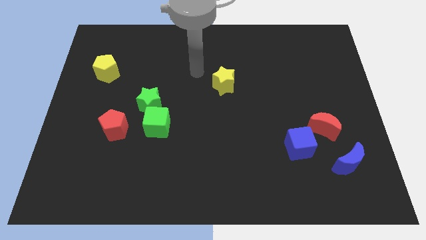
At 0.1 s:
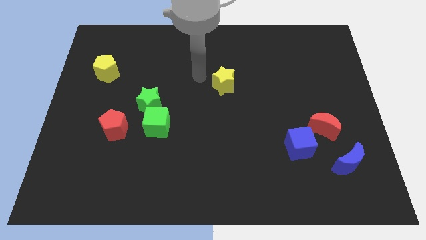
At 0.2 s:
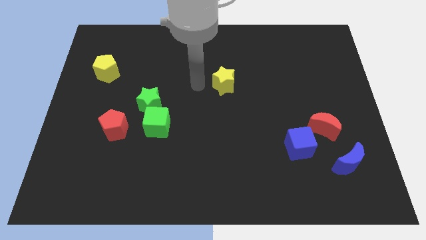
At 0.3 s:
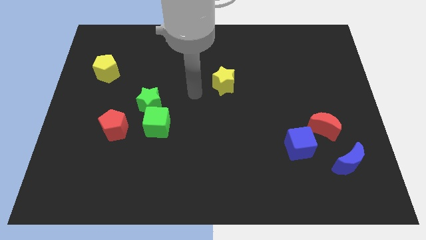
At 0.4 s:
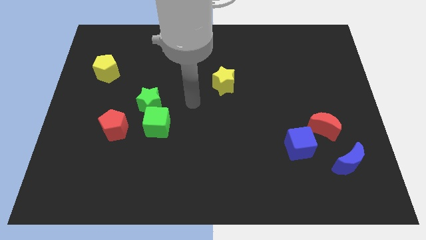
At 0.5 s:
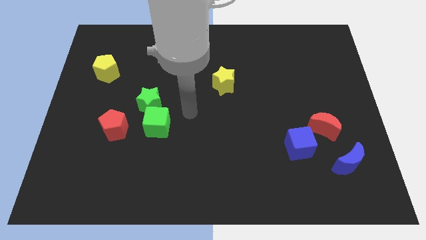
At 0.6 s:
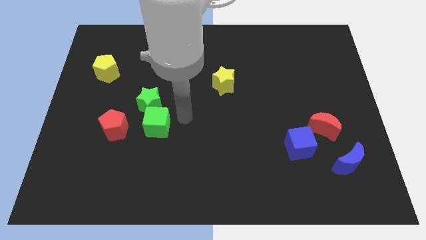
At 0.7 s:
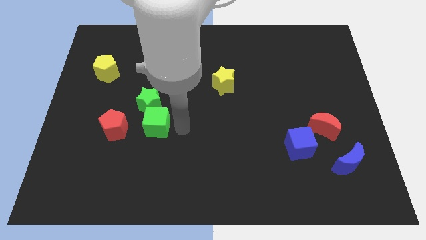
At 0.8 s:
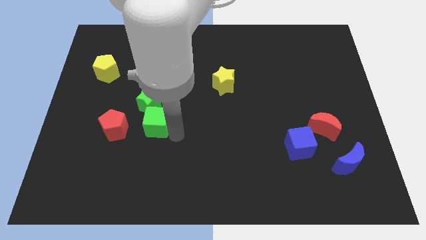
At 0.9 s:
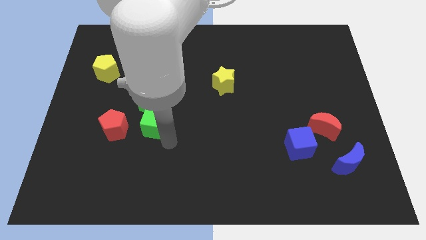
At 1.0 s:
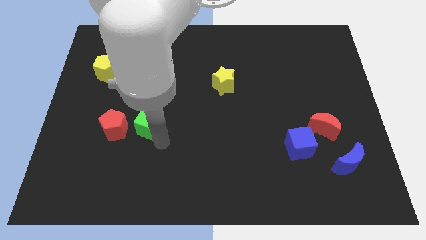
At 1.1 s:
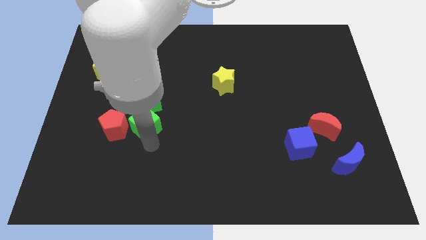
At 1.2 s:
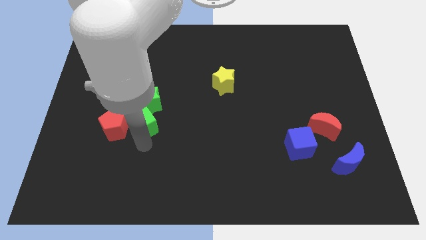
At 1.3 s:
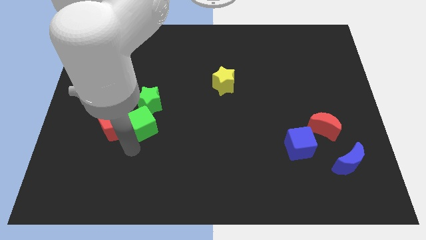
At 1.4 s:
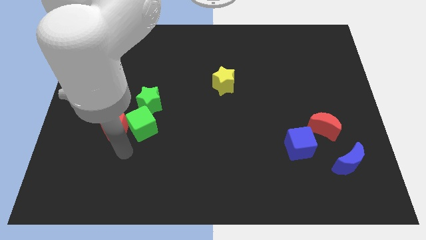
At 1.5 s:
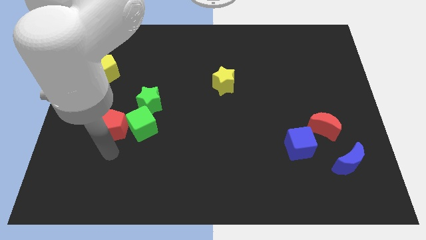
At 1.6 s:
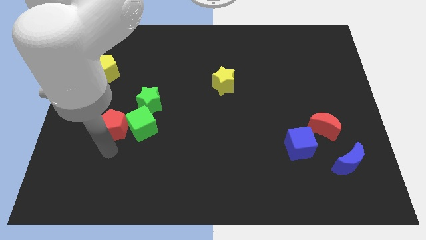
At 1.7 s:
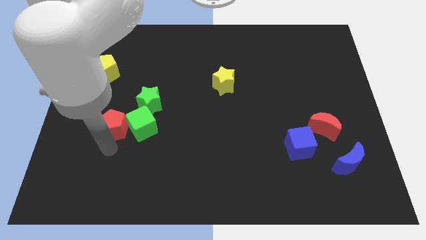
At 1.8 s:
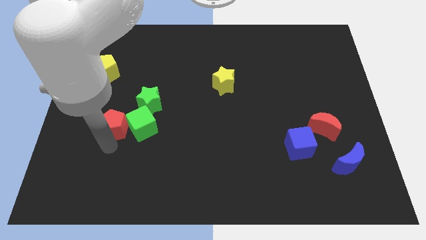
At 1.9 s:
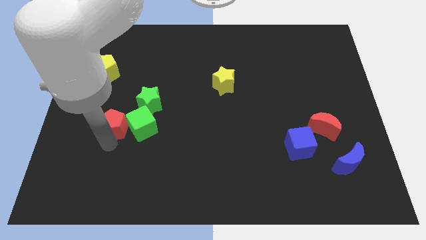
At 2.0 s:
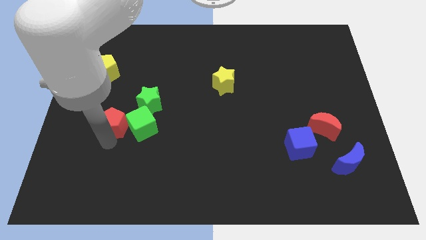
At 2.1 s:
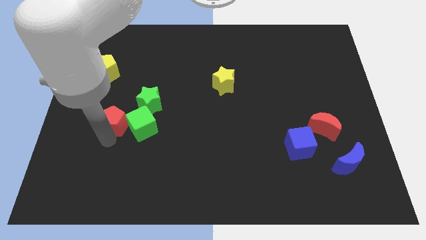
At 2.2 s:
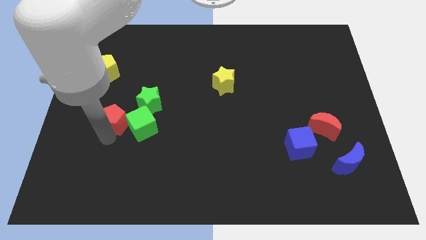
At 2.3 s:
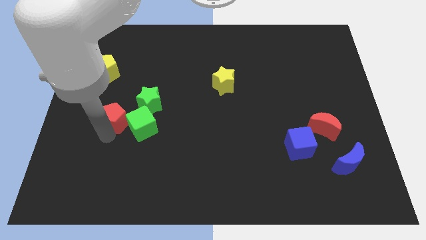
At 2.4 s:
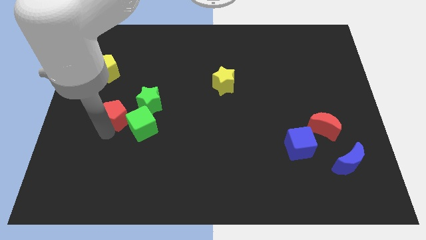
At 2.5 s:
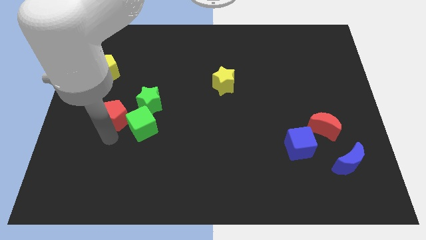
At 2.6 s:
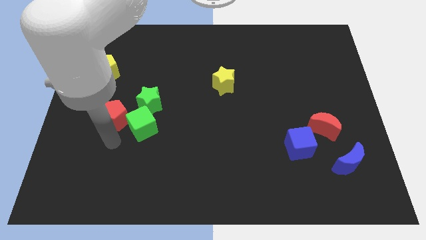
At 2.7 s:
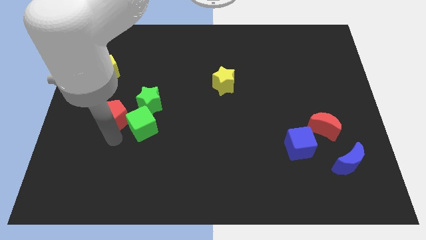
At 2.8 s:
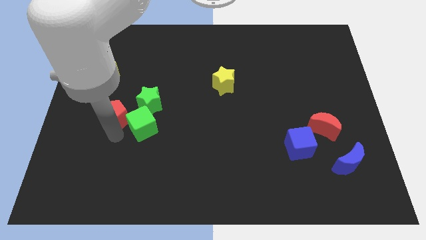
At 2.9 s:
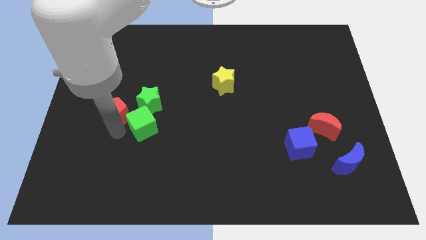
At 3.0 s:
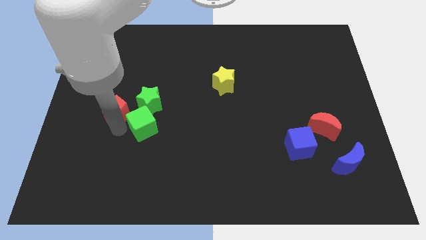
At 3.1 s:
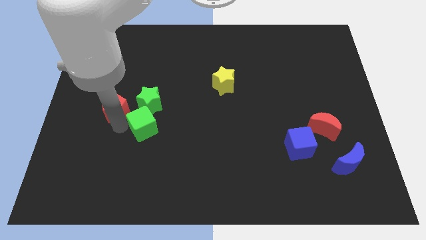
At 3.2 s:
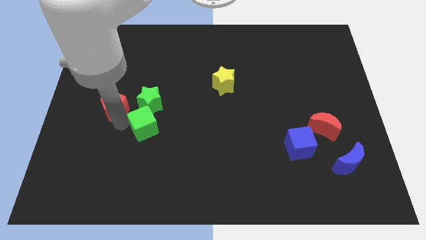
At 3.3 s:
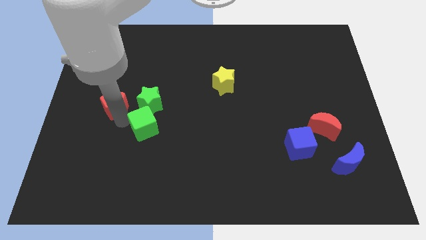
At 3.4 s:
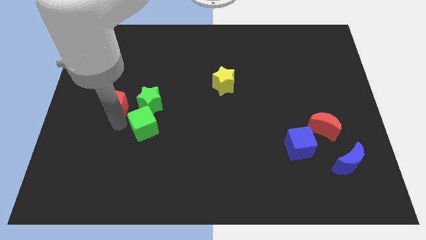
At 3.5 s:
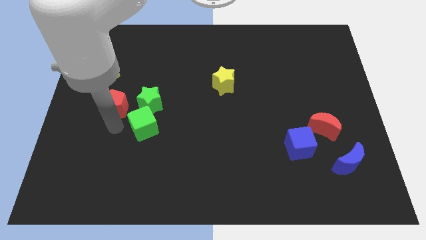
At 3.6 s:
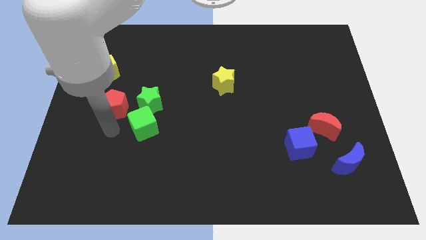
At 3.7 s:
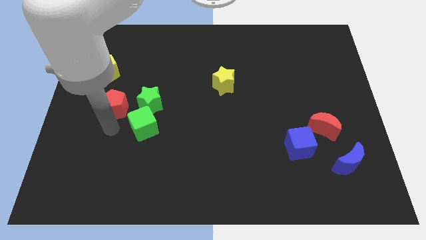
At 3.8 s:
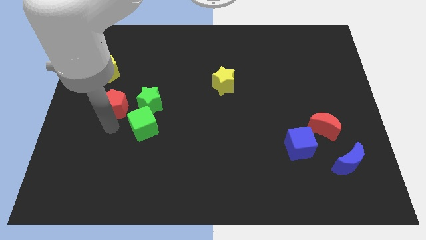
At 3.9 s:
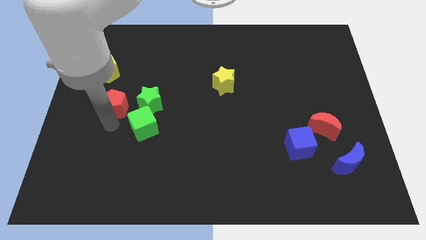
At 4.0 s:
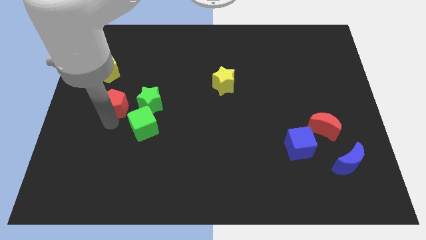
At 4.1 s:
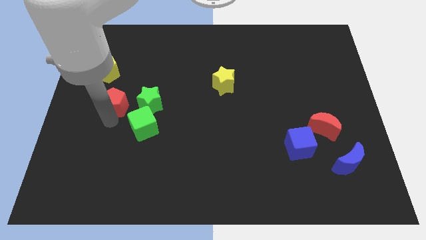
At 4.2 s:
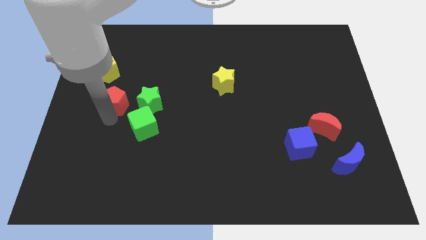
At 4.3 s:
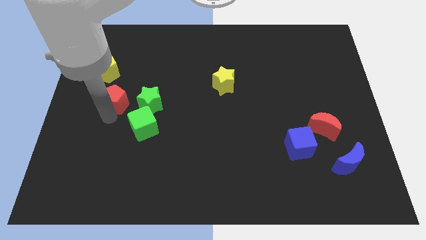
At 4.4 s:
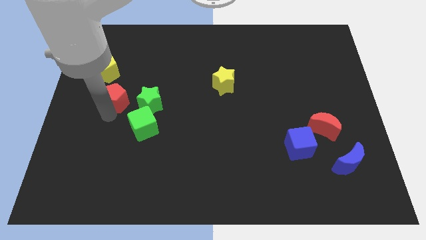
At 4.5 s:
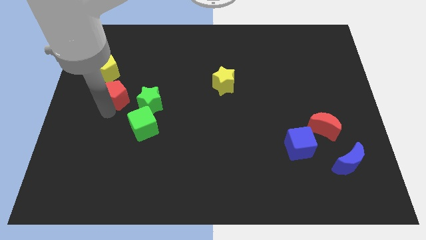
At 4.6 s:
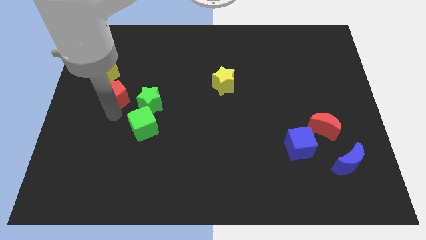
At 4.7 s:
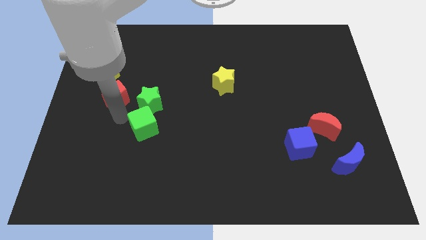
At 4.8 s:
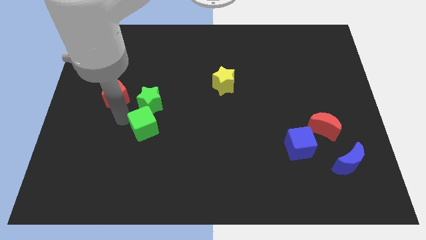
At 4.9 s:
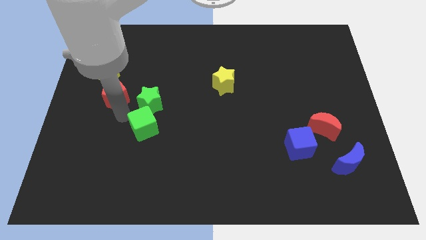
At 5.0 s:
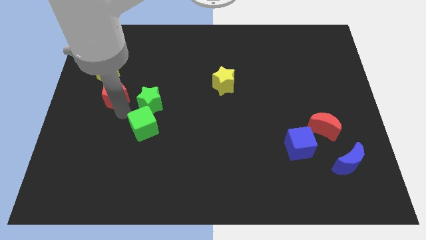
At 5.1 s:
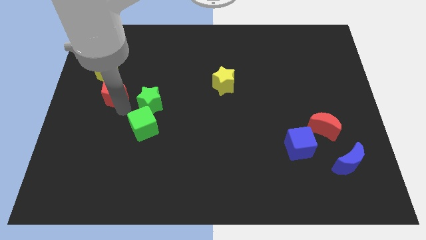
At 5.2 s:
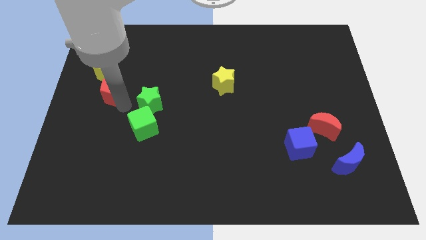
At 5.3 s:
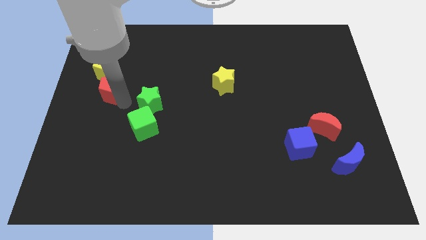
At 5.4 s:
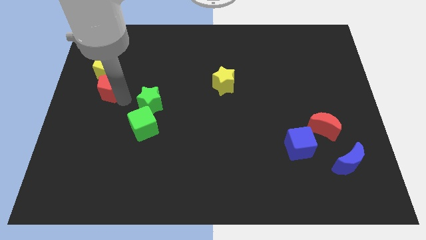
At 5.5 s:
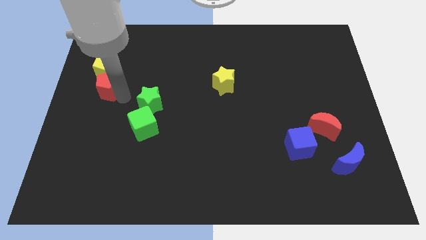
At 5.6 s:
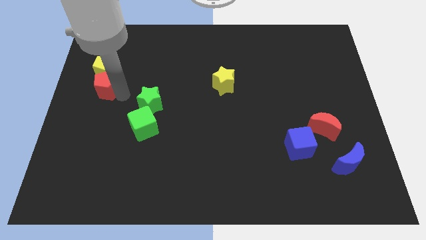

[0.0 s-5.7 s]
push the red pentagon to the yellow pentagon

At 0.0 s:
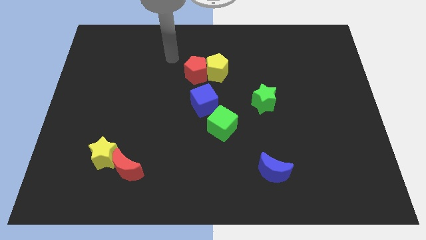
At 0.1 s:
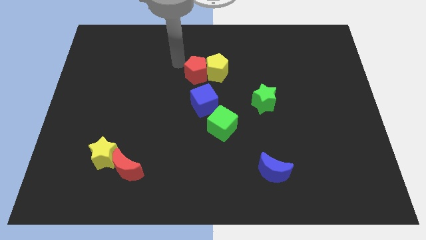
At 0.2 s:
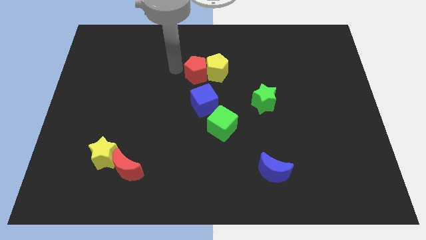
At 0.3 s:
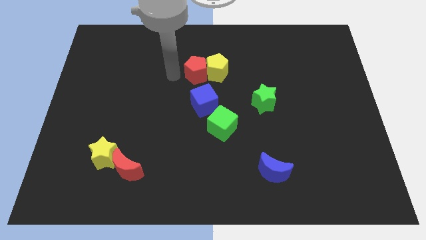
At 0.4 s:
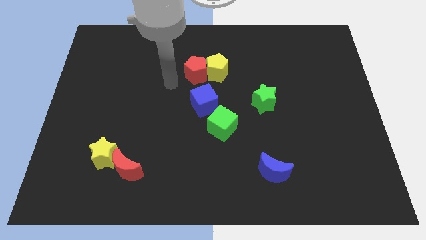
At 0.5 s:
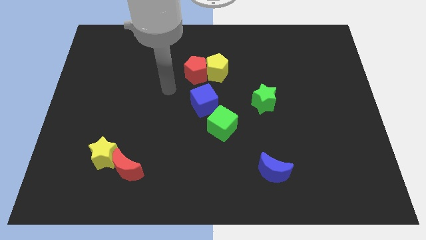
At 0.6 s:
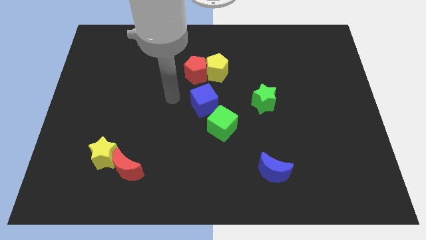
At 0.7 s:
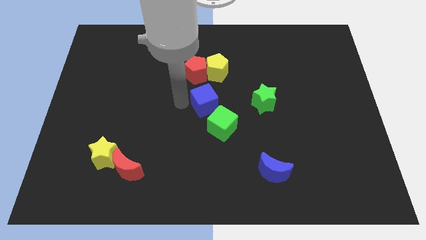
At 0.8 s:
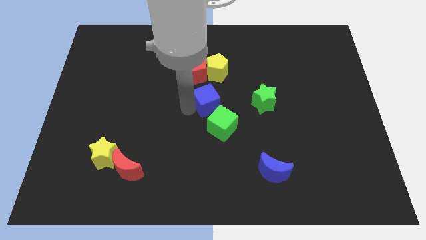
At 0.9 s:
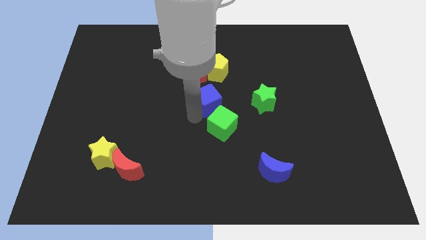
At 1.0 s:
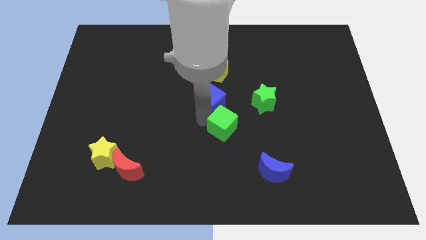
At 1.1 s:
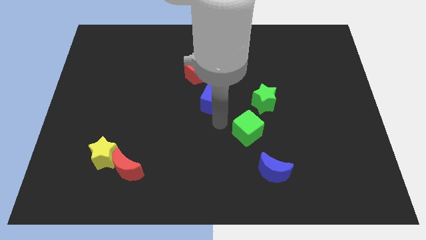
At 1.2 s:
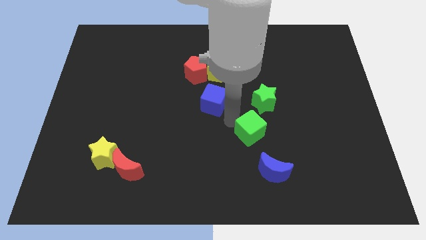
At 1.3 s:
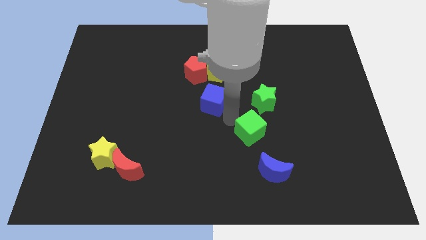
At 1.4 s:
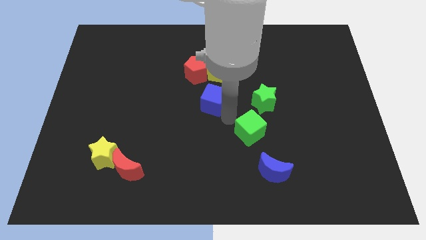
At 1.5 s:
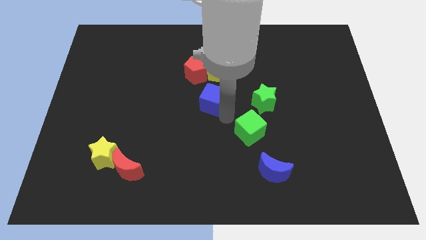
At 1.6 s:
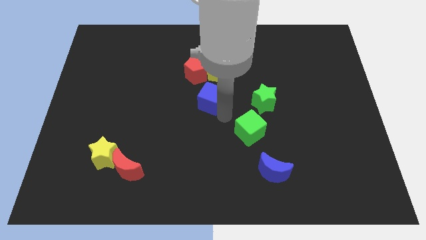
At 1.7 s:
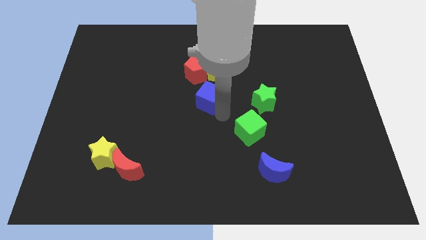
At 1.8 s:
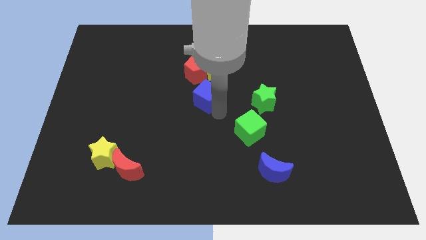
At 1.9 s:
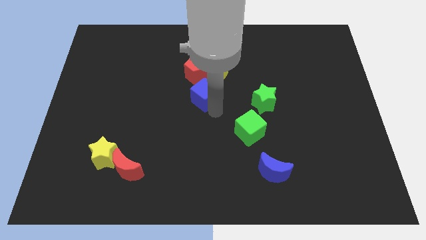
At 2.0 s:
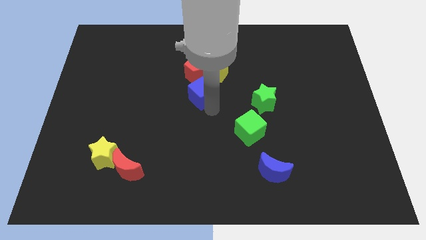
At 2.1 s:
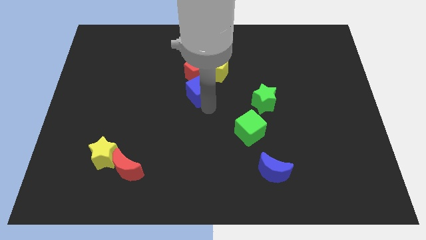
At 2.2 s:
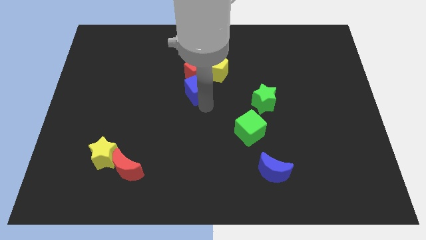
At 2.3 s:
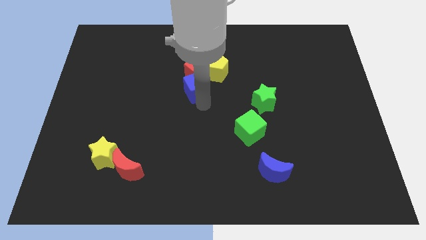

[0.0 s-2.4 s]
slide the blue cube close to the red pentagon
